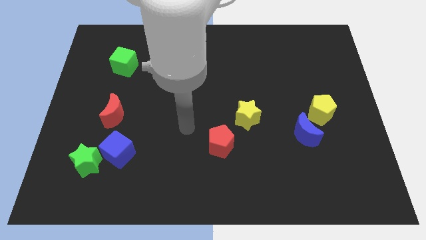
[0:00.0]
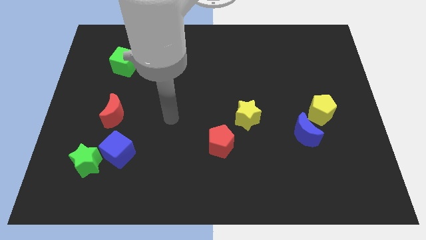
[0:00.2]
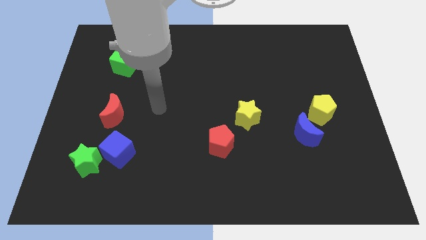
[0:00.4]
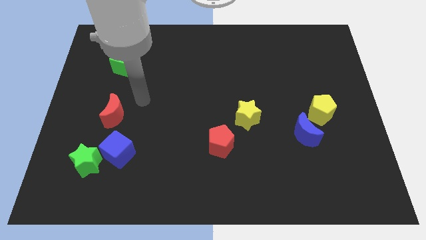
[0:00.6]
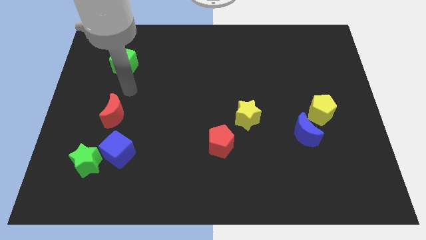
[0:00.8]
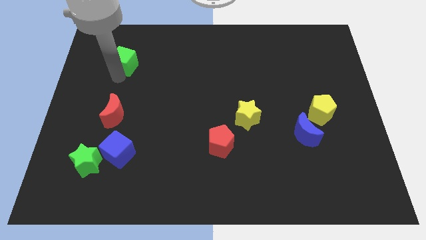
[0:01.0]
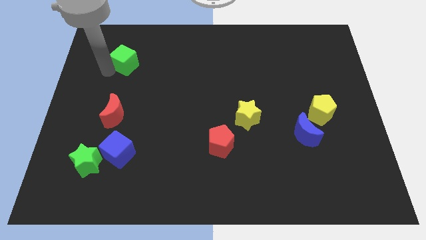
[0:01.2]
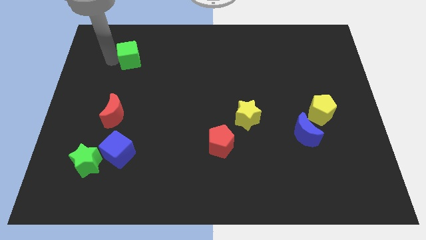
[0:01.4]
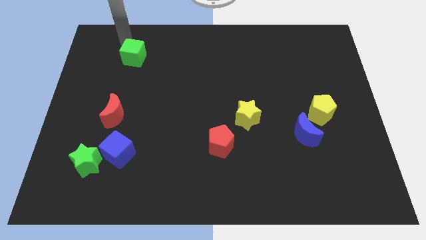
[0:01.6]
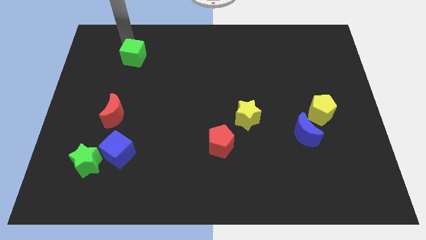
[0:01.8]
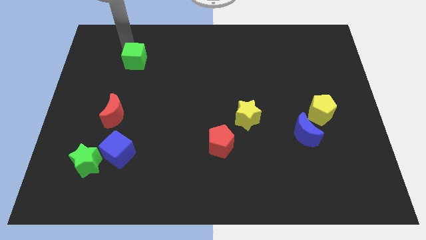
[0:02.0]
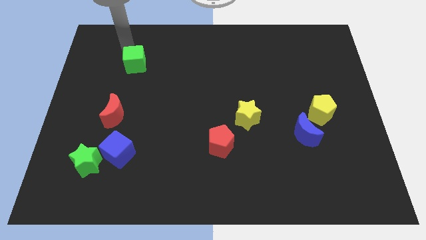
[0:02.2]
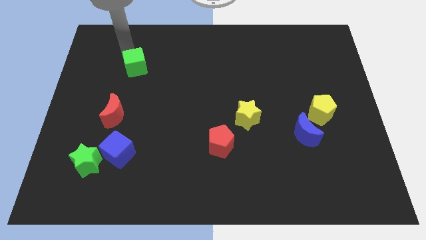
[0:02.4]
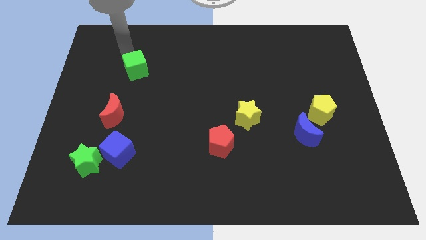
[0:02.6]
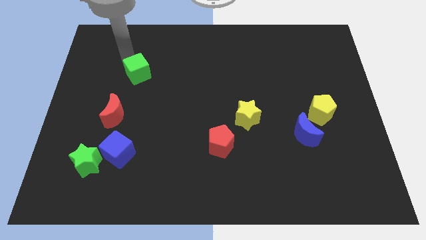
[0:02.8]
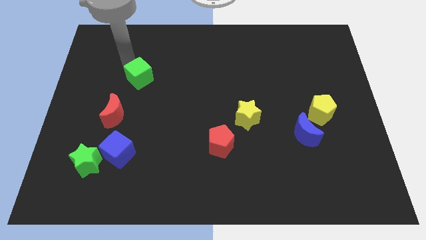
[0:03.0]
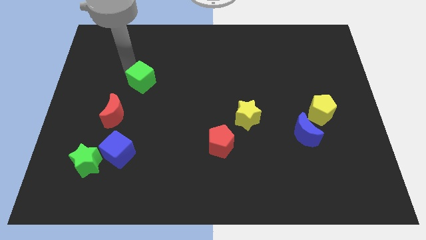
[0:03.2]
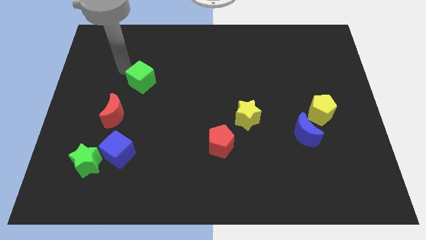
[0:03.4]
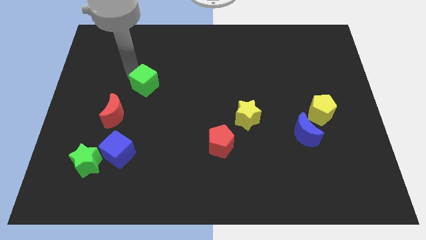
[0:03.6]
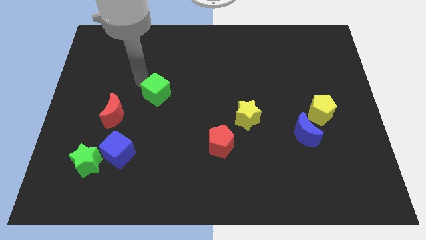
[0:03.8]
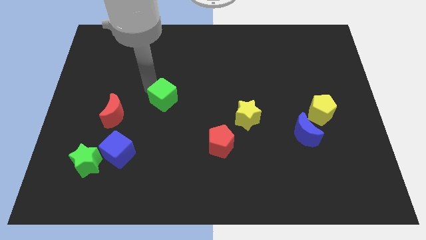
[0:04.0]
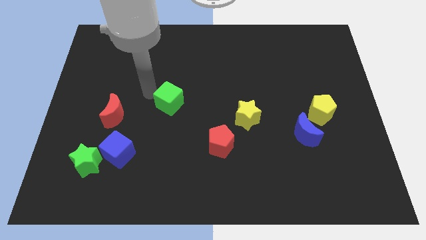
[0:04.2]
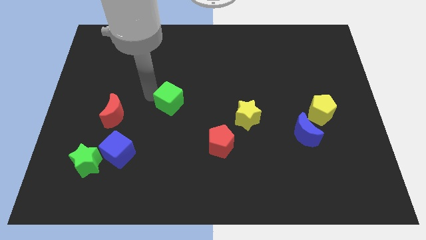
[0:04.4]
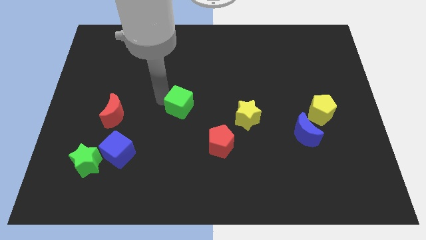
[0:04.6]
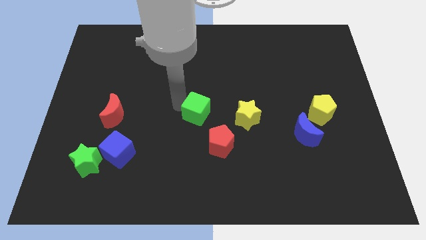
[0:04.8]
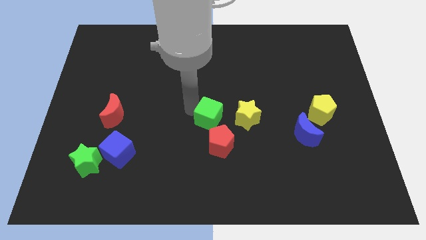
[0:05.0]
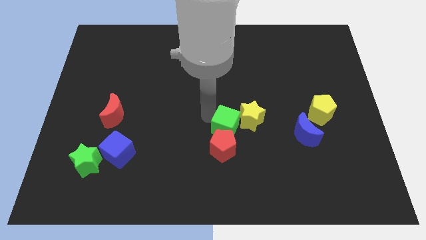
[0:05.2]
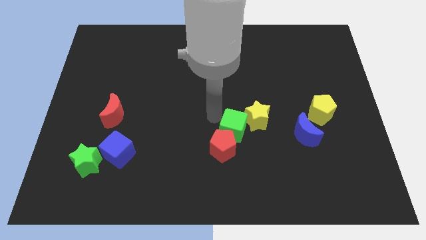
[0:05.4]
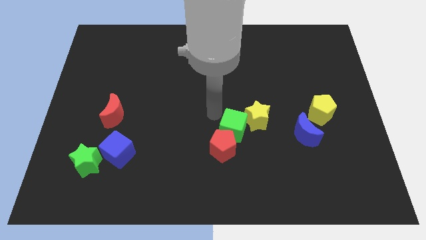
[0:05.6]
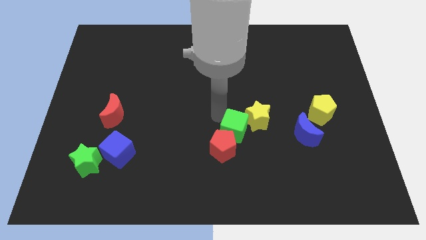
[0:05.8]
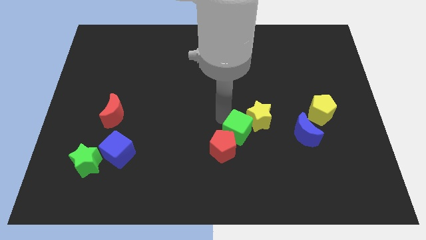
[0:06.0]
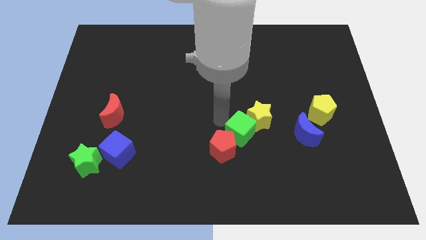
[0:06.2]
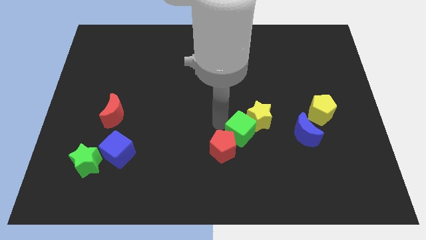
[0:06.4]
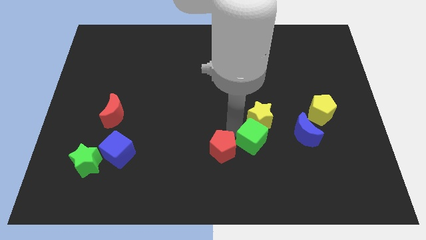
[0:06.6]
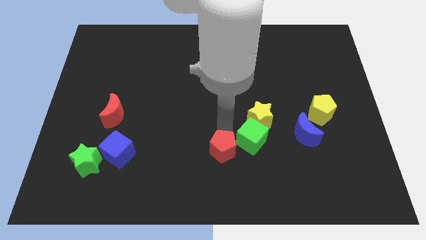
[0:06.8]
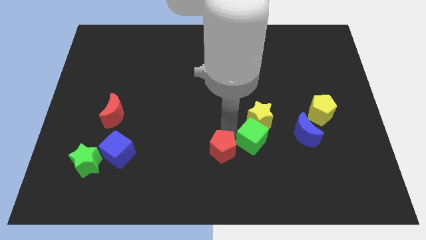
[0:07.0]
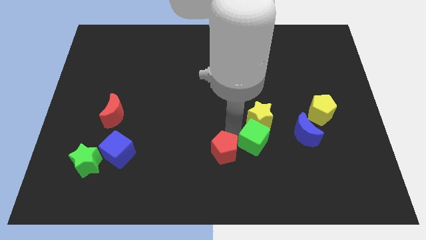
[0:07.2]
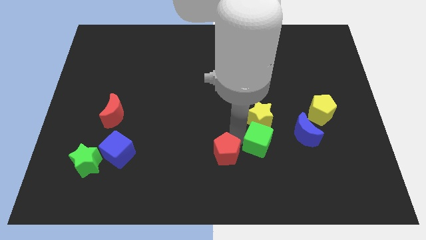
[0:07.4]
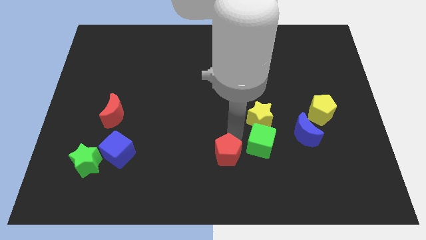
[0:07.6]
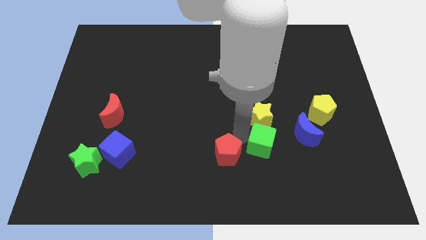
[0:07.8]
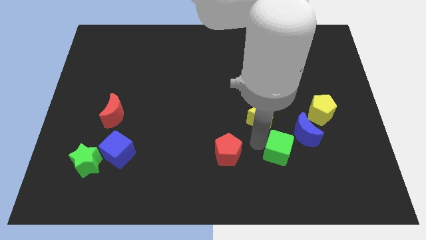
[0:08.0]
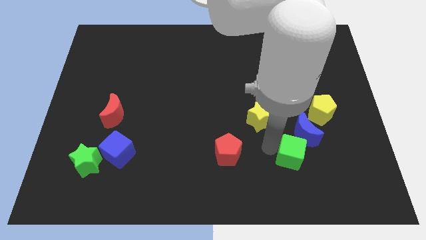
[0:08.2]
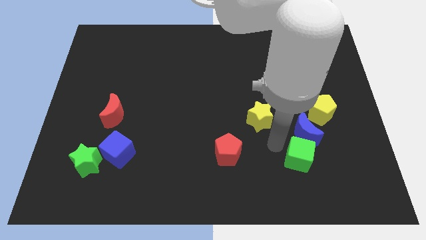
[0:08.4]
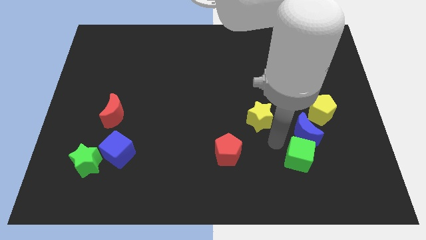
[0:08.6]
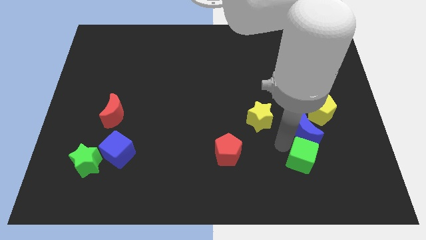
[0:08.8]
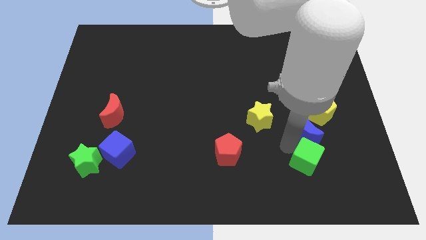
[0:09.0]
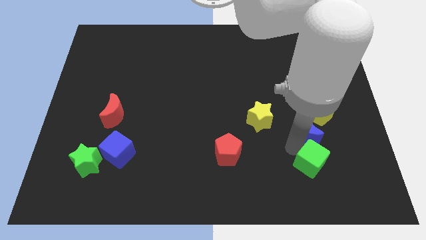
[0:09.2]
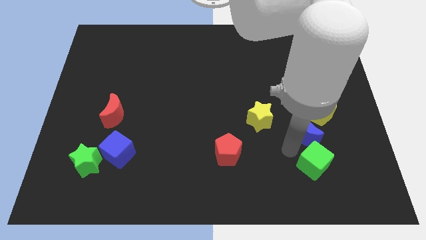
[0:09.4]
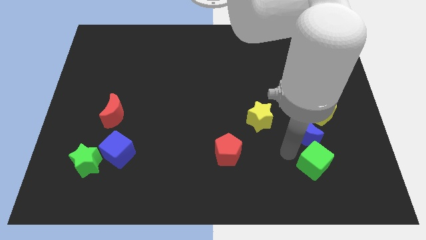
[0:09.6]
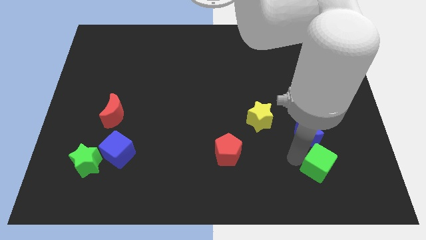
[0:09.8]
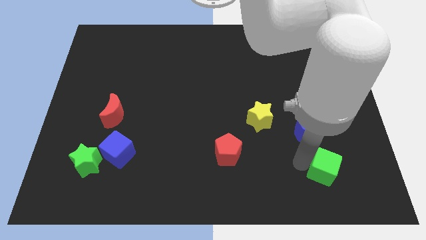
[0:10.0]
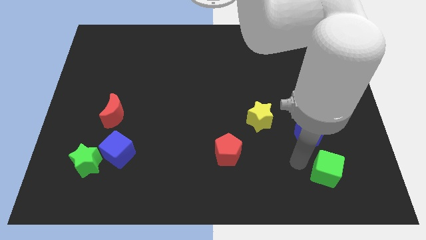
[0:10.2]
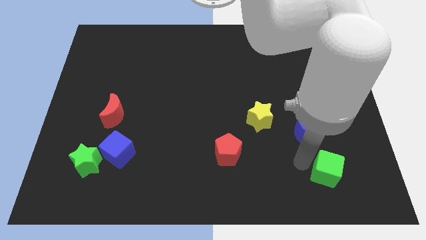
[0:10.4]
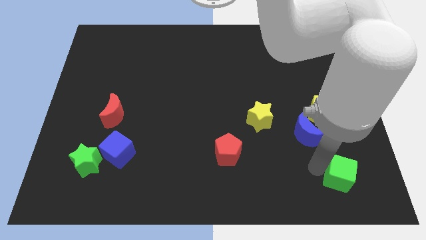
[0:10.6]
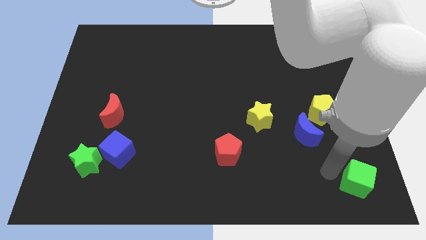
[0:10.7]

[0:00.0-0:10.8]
put the green cube to the bottom right
